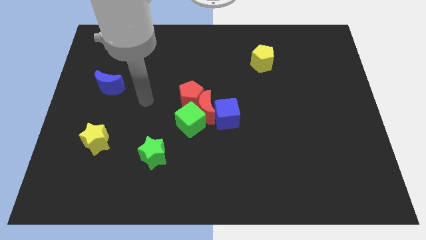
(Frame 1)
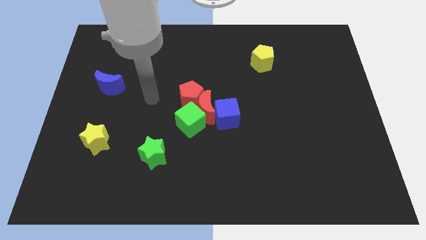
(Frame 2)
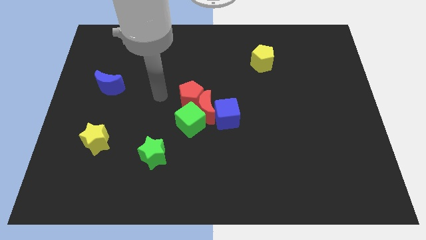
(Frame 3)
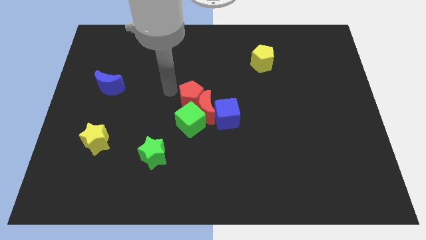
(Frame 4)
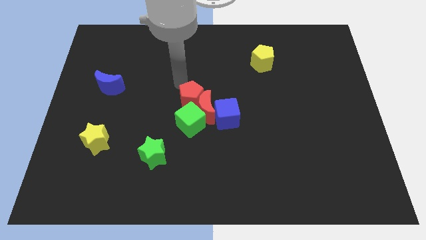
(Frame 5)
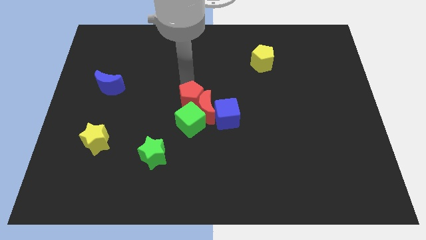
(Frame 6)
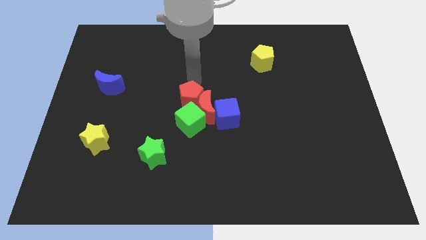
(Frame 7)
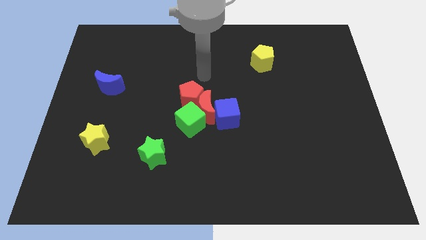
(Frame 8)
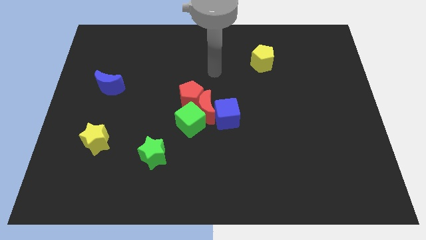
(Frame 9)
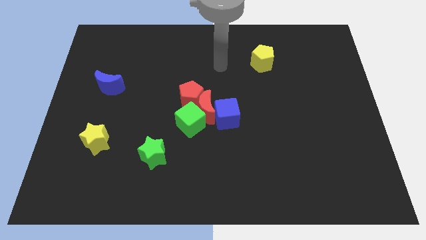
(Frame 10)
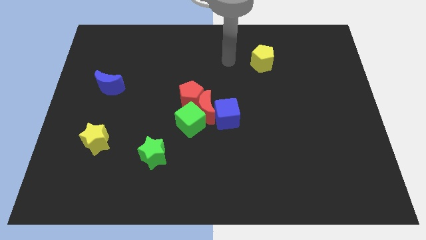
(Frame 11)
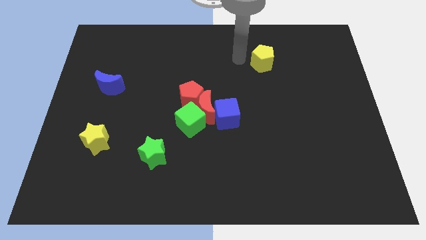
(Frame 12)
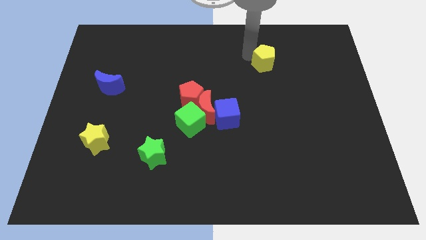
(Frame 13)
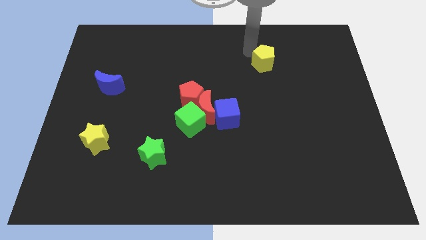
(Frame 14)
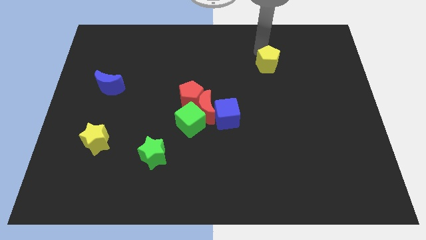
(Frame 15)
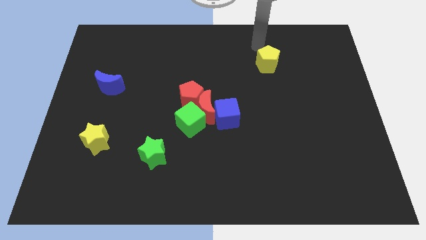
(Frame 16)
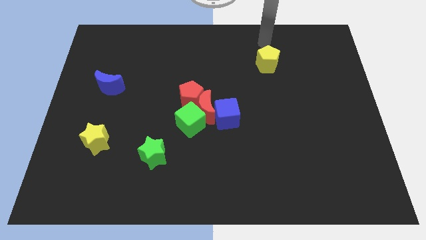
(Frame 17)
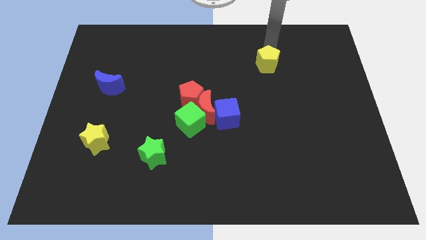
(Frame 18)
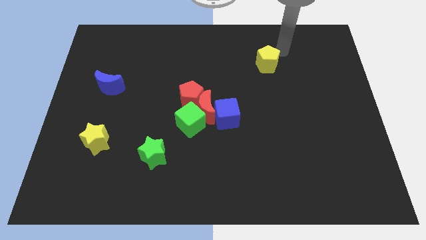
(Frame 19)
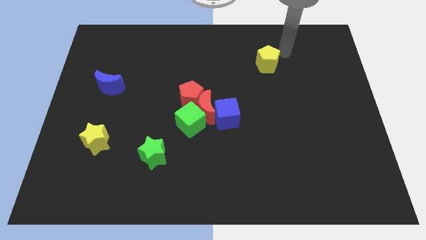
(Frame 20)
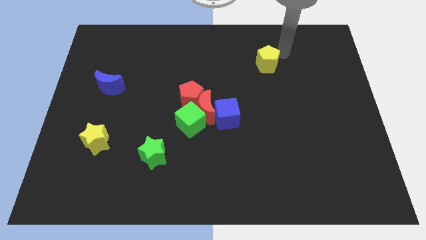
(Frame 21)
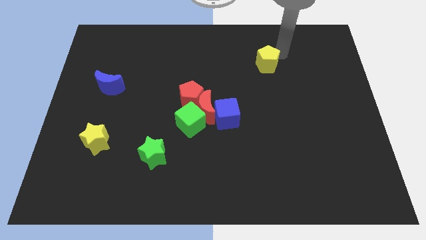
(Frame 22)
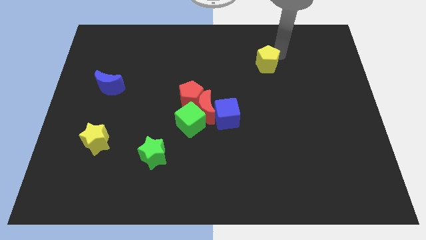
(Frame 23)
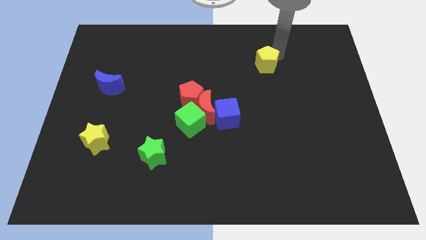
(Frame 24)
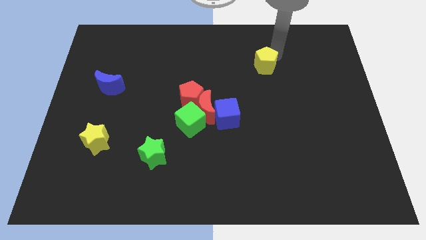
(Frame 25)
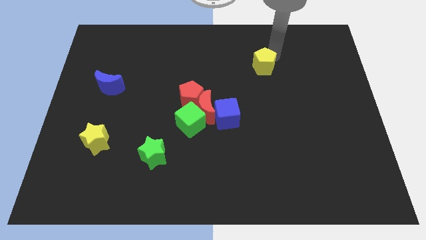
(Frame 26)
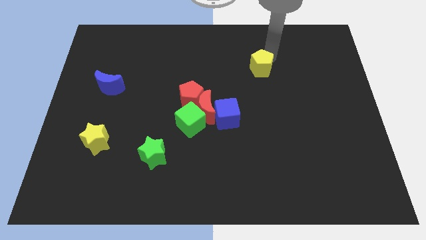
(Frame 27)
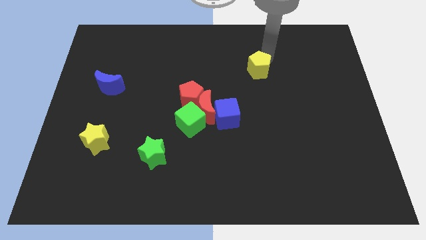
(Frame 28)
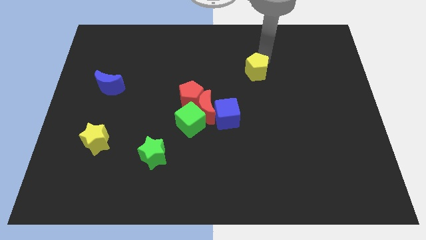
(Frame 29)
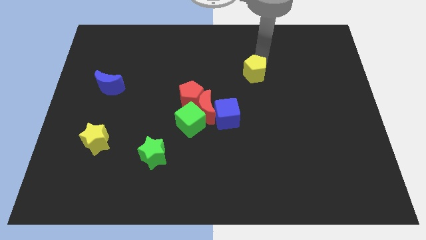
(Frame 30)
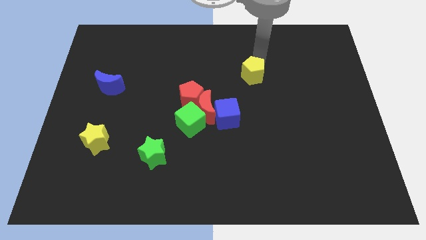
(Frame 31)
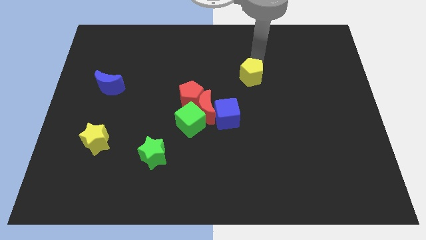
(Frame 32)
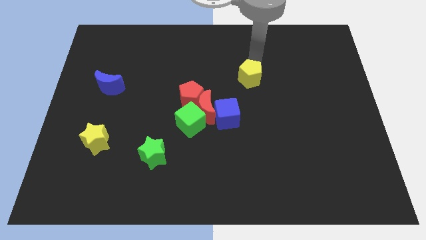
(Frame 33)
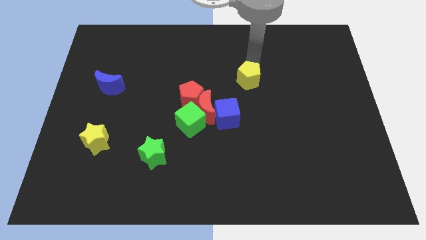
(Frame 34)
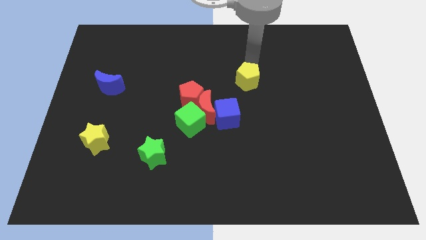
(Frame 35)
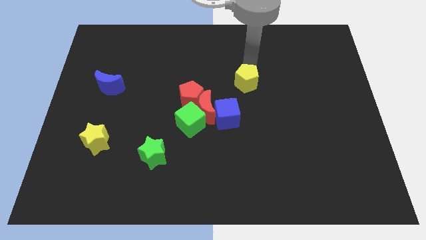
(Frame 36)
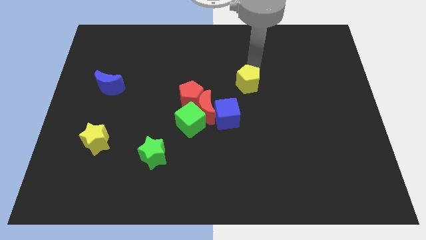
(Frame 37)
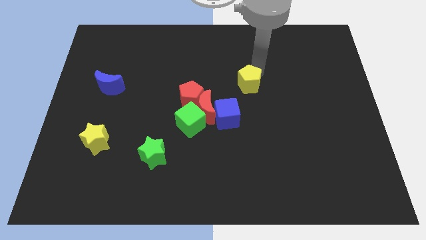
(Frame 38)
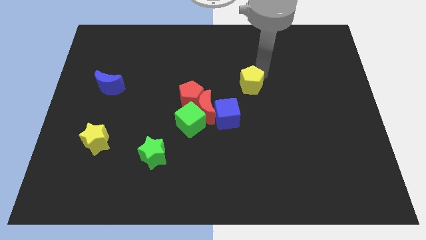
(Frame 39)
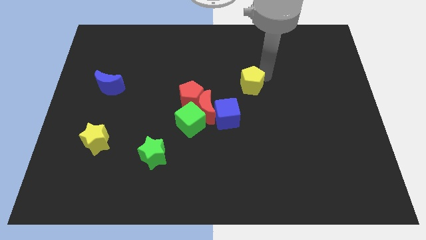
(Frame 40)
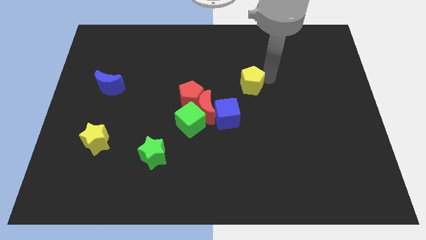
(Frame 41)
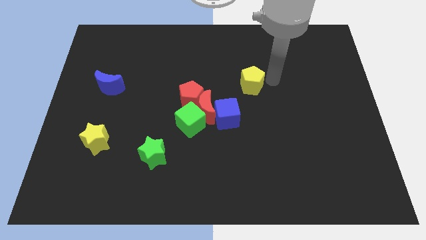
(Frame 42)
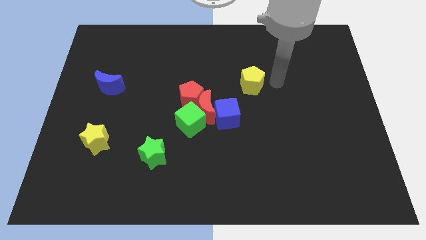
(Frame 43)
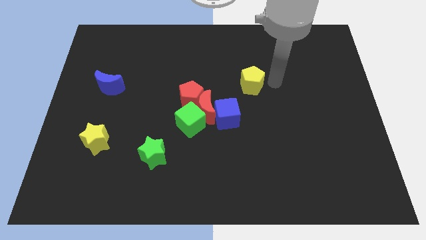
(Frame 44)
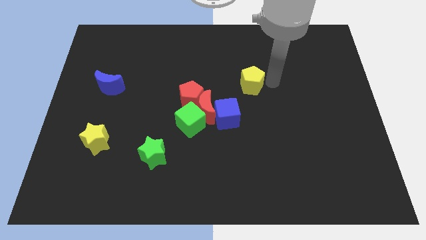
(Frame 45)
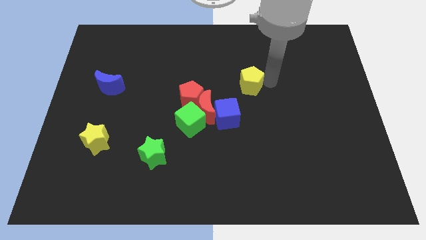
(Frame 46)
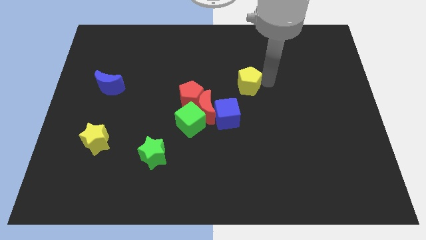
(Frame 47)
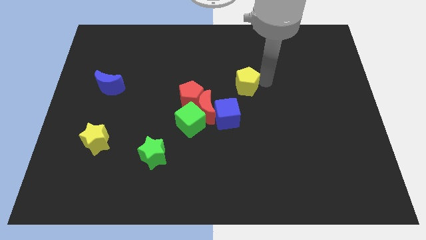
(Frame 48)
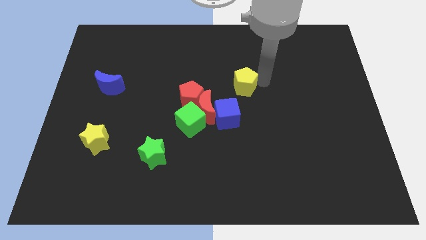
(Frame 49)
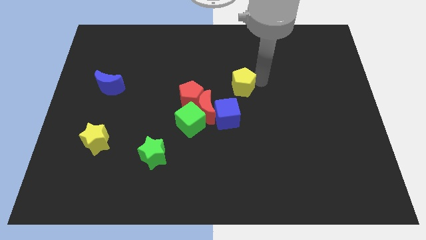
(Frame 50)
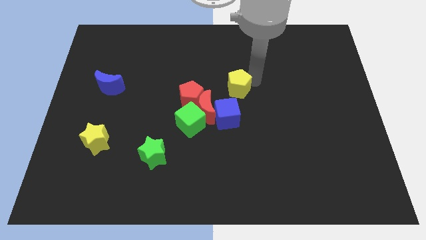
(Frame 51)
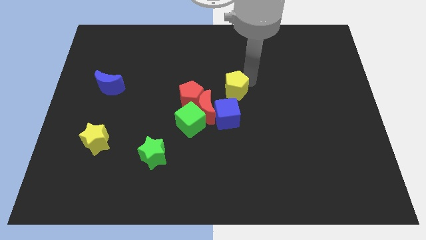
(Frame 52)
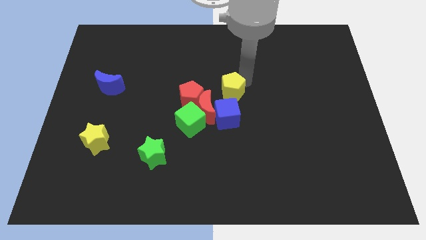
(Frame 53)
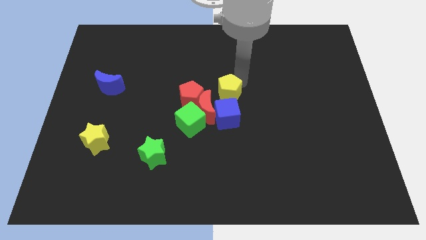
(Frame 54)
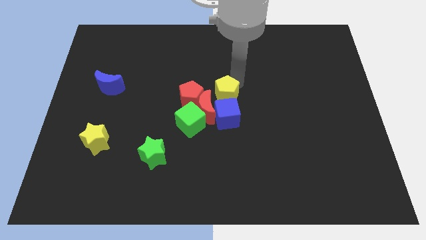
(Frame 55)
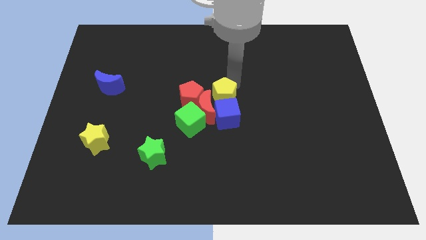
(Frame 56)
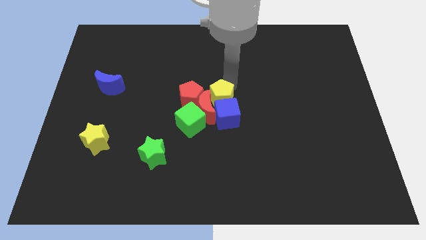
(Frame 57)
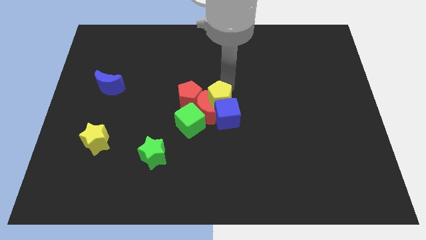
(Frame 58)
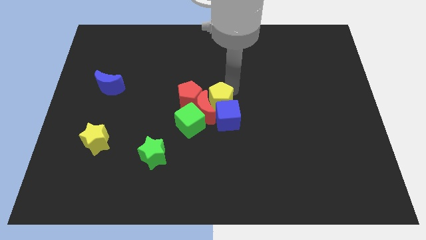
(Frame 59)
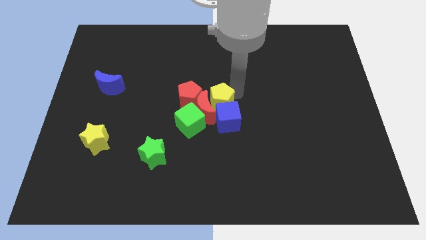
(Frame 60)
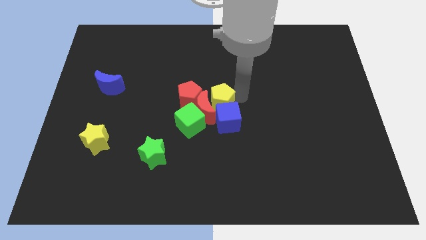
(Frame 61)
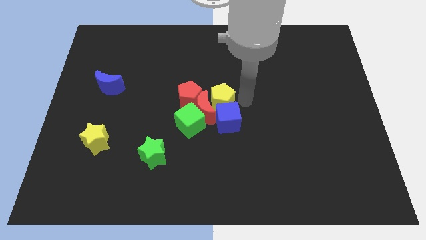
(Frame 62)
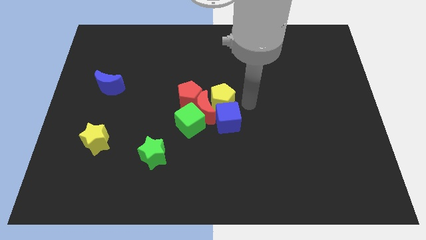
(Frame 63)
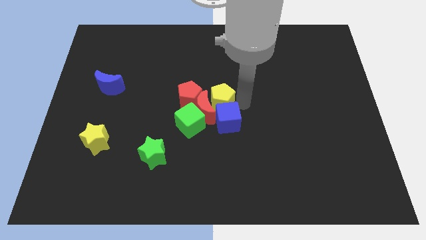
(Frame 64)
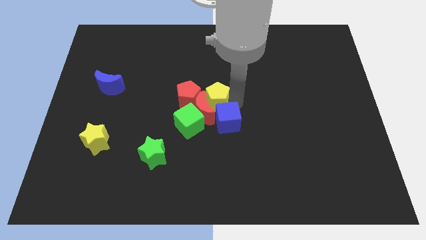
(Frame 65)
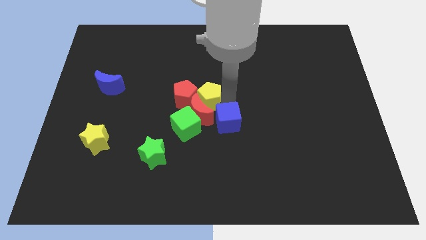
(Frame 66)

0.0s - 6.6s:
move the yellow pentagon next to the red pentagon
